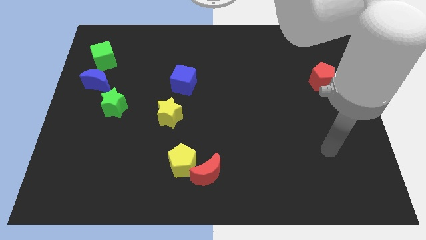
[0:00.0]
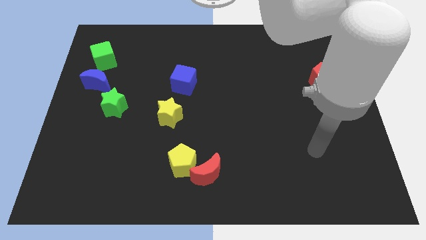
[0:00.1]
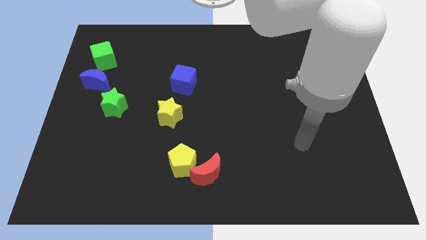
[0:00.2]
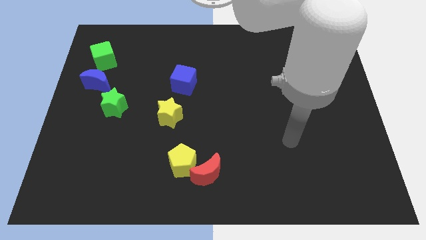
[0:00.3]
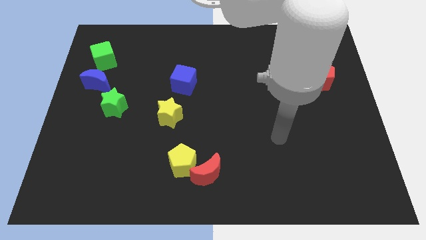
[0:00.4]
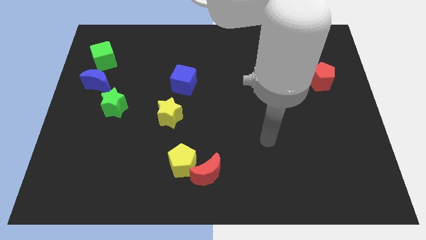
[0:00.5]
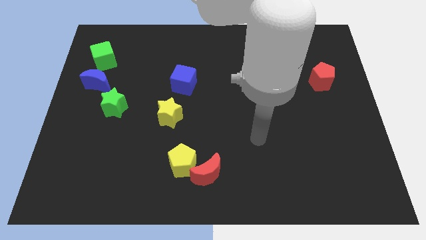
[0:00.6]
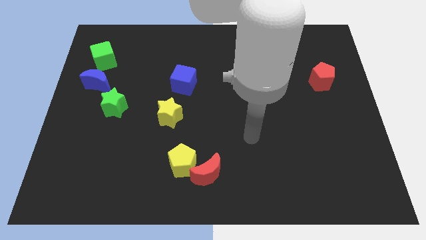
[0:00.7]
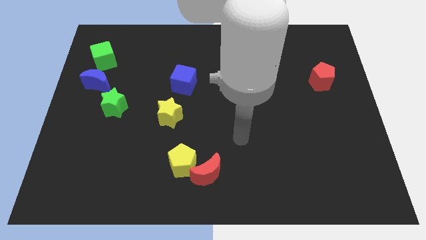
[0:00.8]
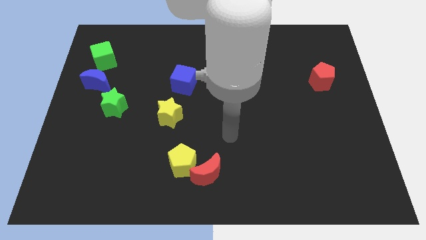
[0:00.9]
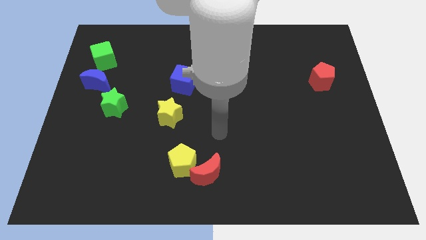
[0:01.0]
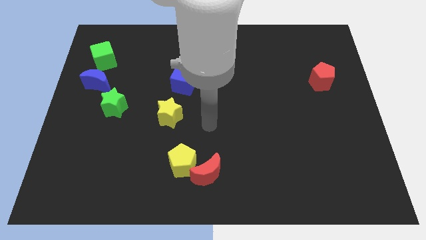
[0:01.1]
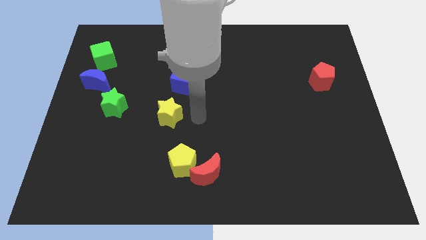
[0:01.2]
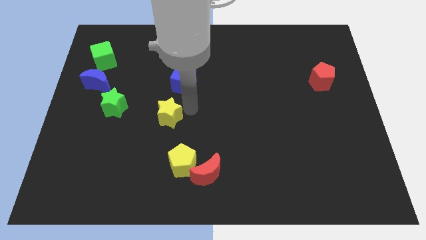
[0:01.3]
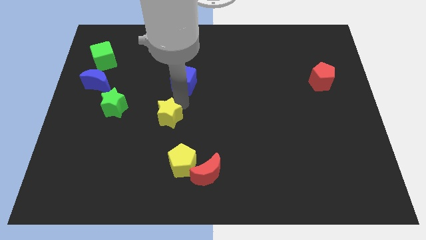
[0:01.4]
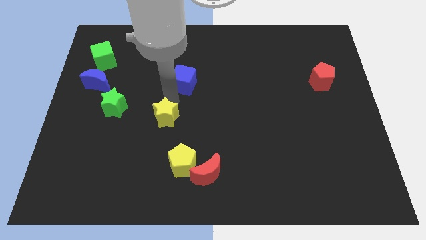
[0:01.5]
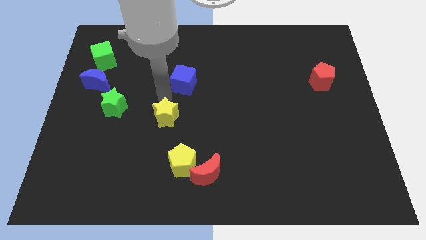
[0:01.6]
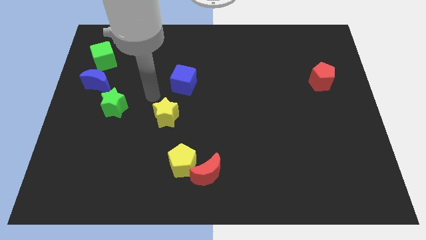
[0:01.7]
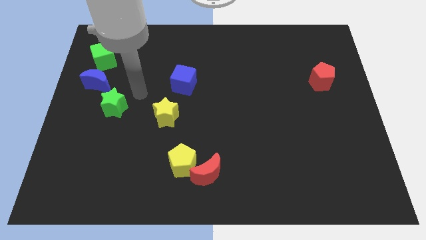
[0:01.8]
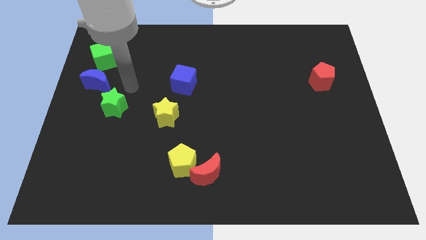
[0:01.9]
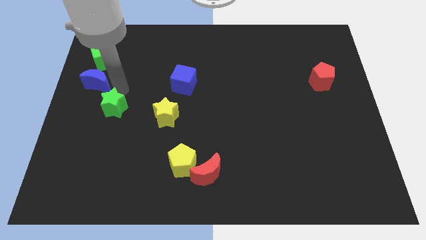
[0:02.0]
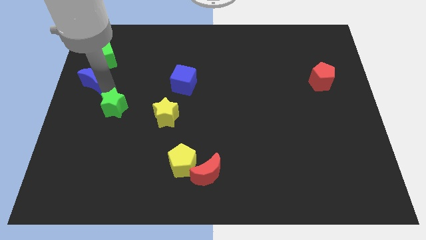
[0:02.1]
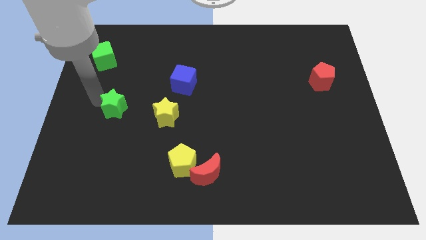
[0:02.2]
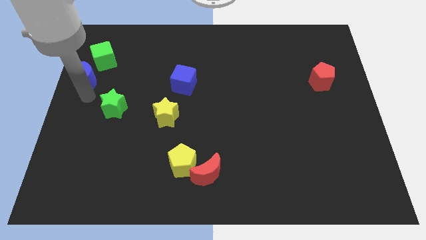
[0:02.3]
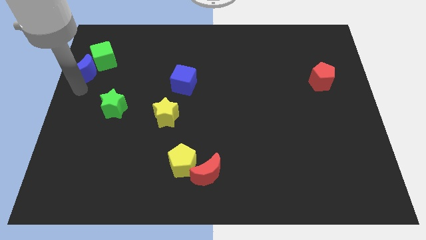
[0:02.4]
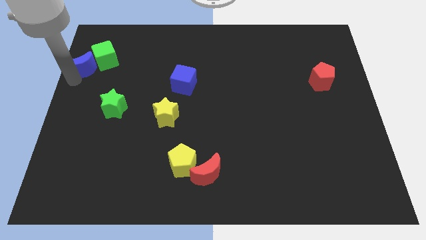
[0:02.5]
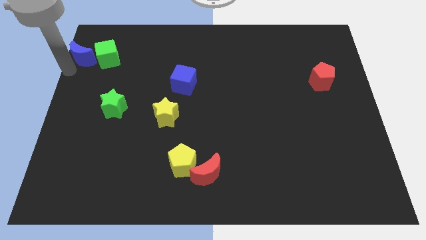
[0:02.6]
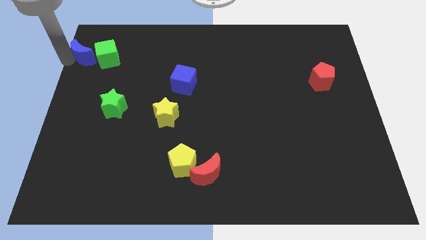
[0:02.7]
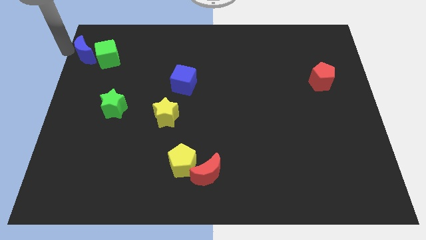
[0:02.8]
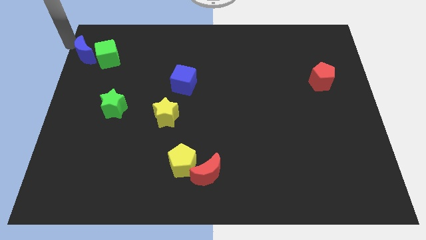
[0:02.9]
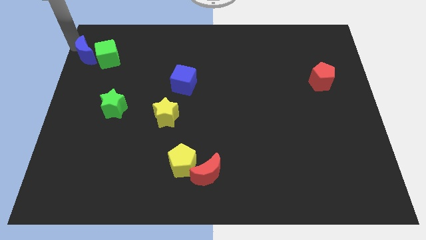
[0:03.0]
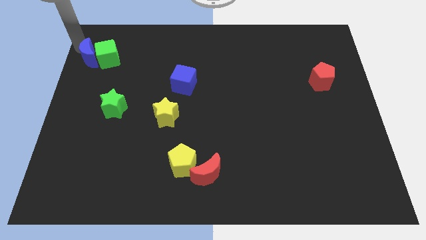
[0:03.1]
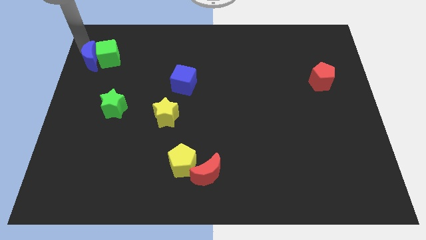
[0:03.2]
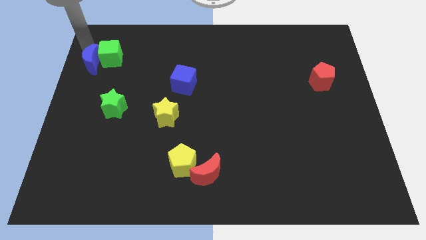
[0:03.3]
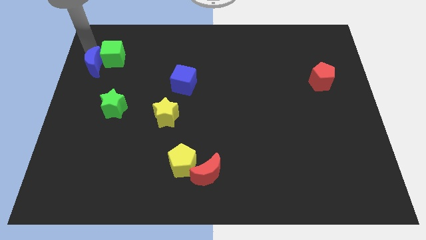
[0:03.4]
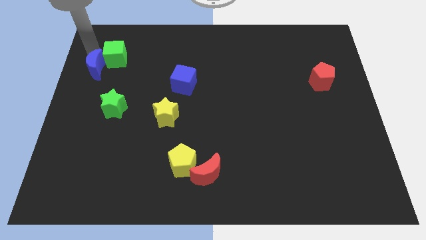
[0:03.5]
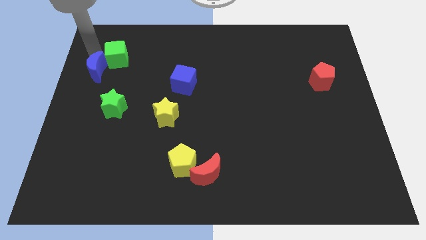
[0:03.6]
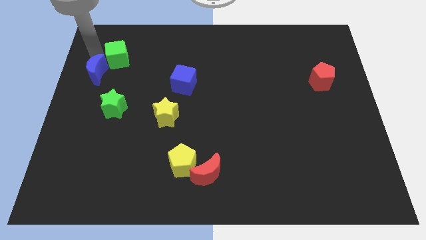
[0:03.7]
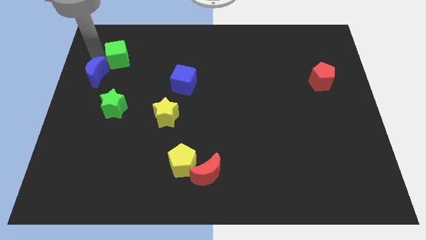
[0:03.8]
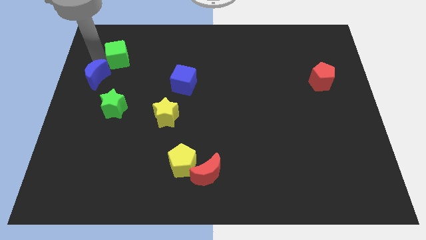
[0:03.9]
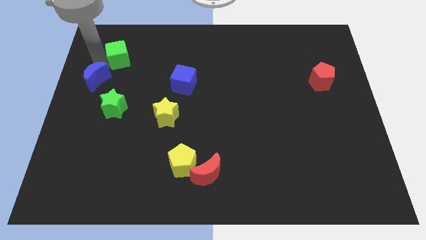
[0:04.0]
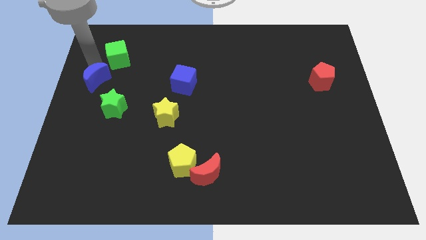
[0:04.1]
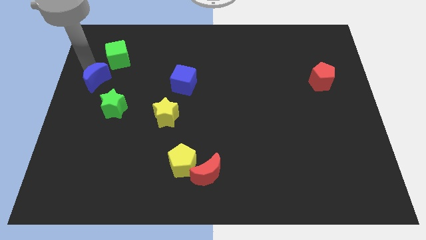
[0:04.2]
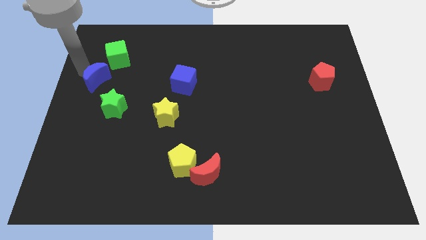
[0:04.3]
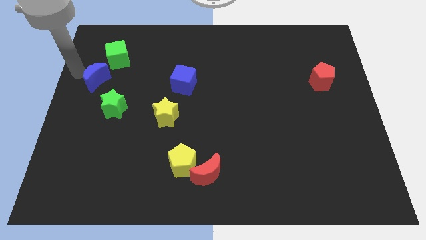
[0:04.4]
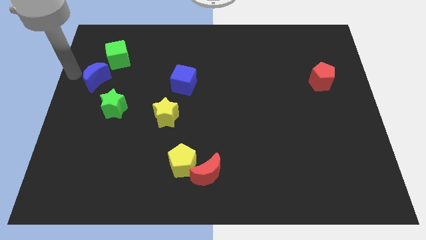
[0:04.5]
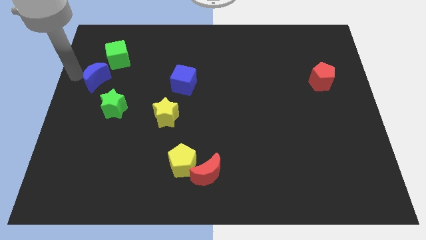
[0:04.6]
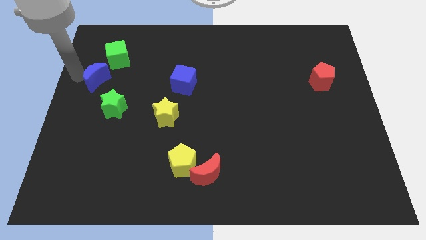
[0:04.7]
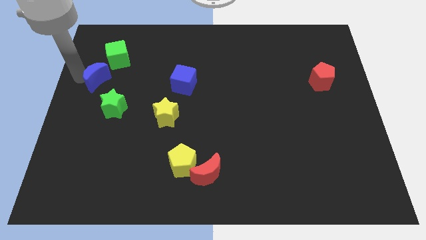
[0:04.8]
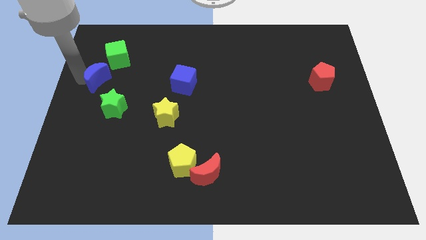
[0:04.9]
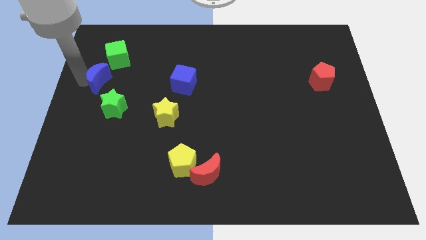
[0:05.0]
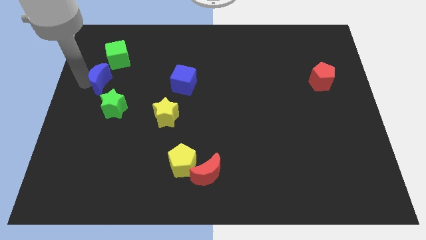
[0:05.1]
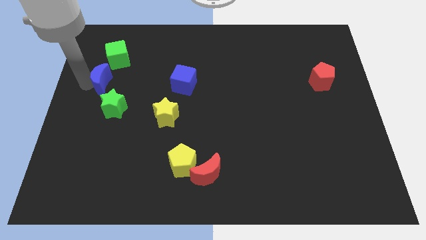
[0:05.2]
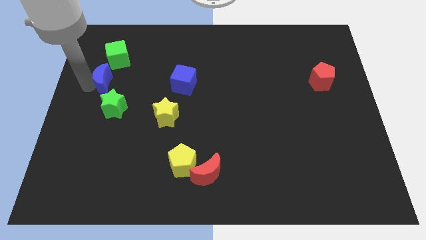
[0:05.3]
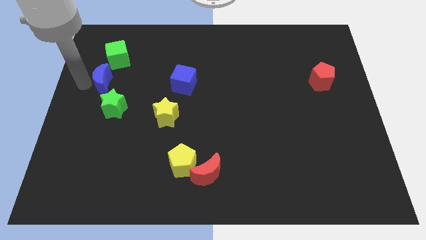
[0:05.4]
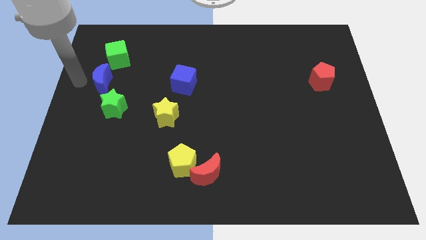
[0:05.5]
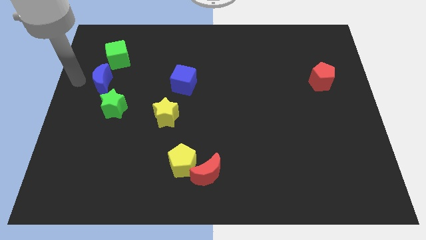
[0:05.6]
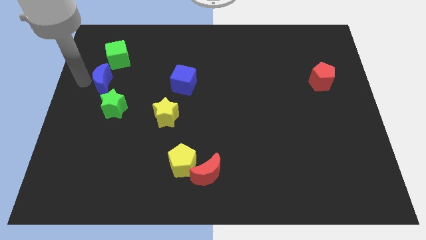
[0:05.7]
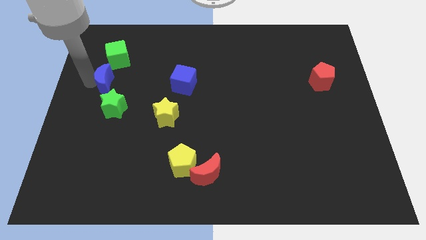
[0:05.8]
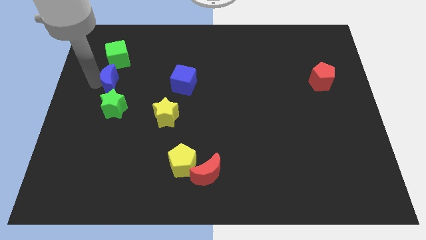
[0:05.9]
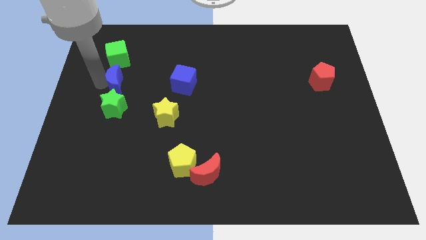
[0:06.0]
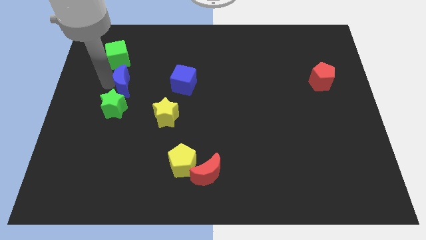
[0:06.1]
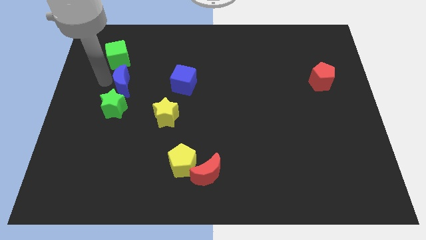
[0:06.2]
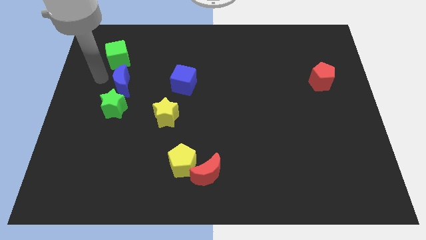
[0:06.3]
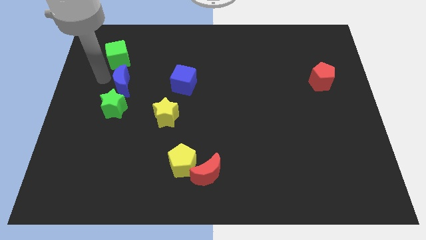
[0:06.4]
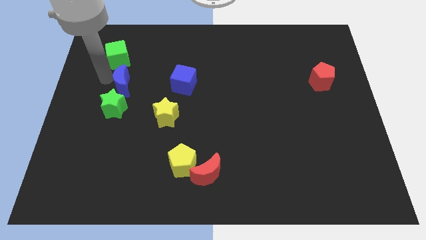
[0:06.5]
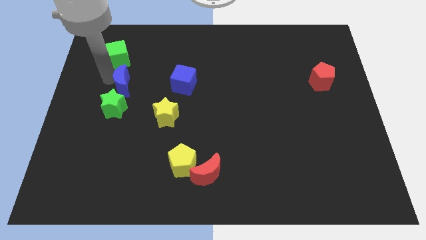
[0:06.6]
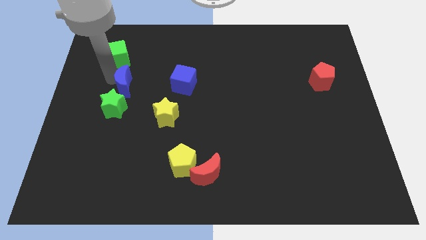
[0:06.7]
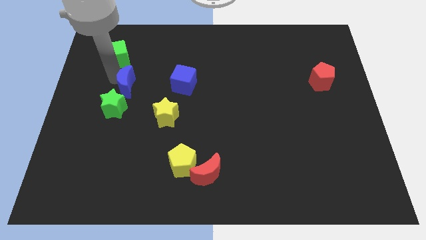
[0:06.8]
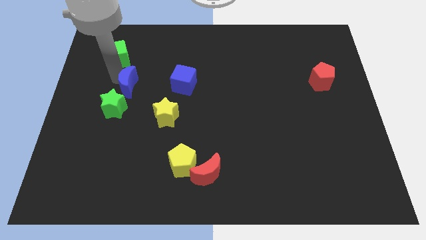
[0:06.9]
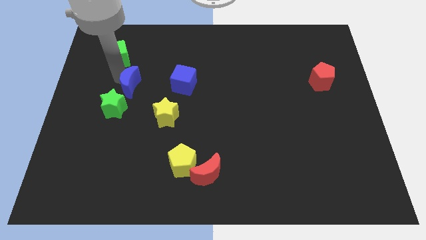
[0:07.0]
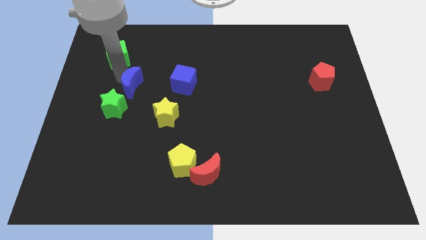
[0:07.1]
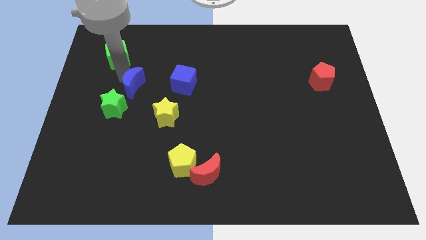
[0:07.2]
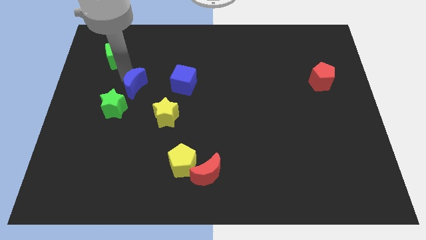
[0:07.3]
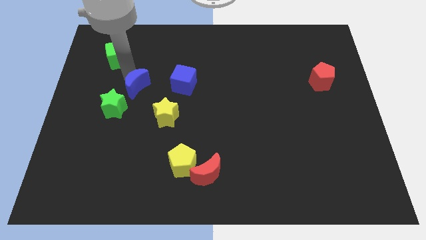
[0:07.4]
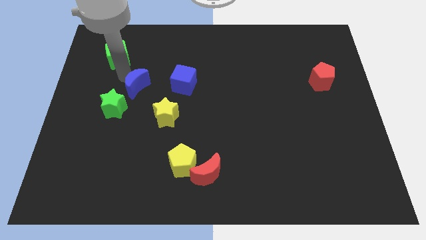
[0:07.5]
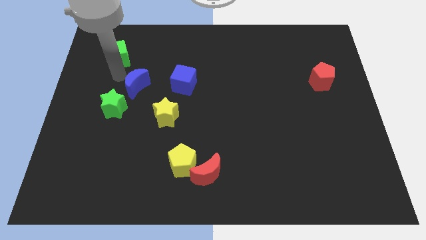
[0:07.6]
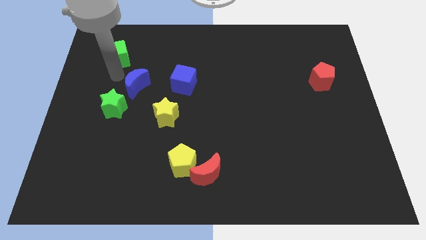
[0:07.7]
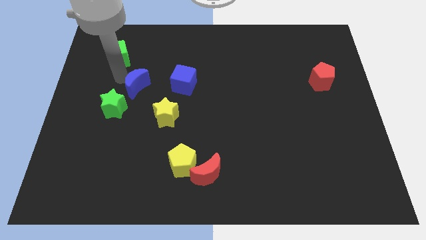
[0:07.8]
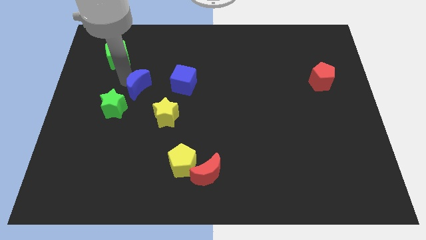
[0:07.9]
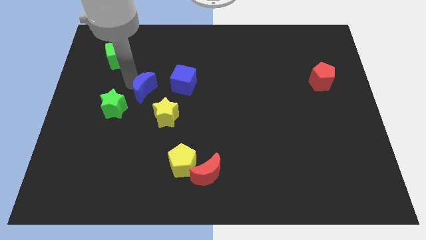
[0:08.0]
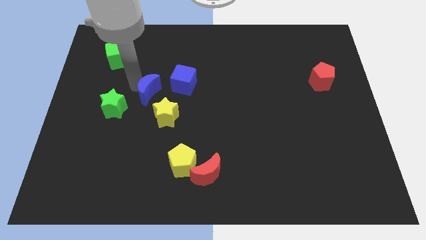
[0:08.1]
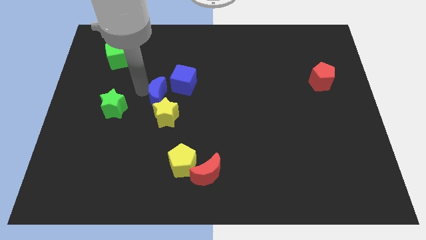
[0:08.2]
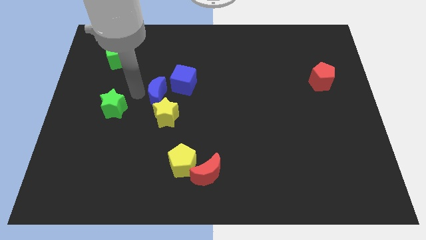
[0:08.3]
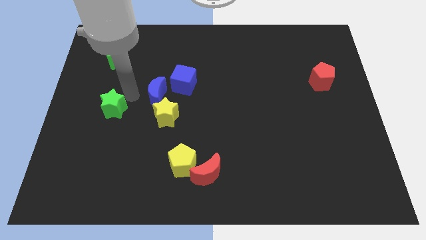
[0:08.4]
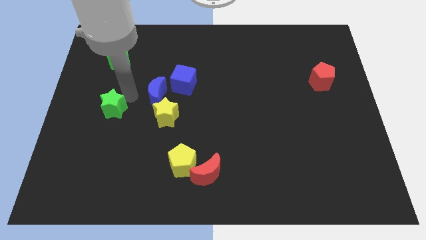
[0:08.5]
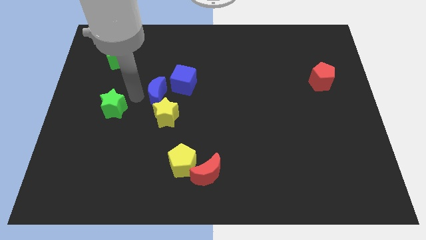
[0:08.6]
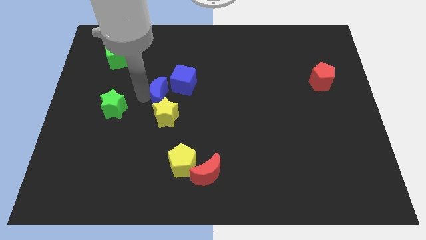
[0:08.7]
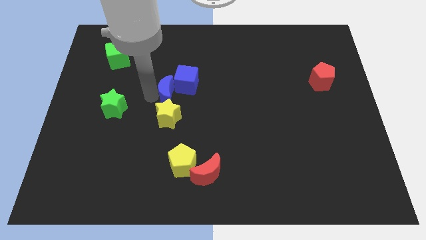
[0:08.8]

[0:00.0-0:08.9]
put the blue moon to the middle
